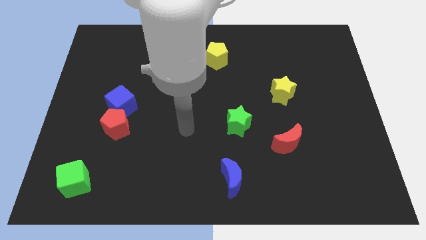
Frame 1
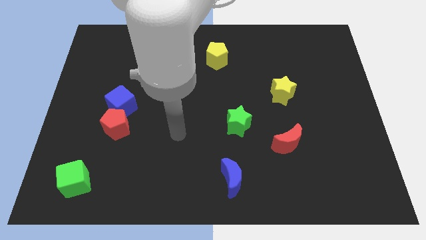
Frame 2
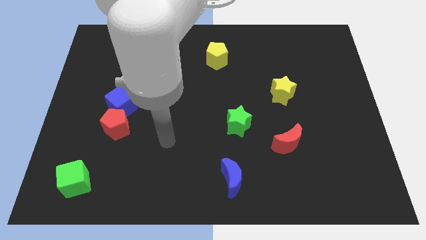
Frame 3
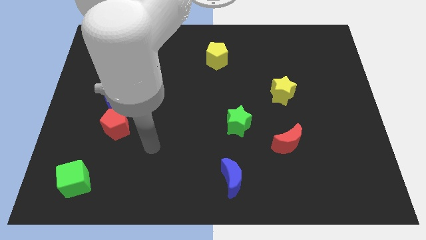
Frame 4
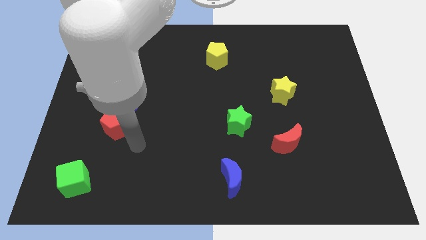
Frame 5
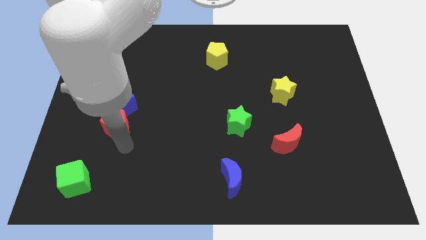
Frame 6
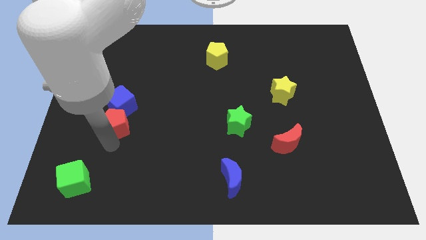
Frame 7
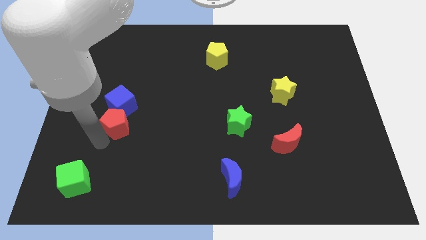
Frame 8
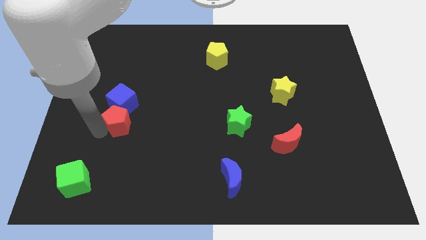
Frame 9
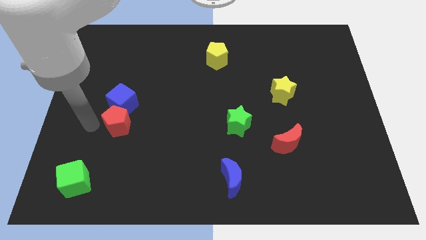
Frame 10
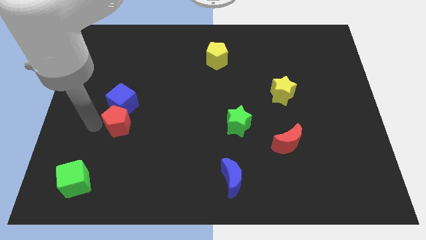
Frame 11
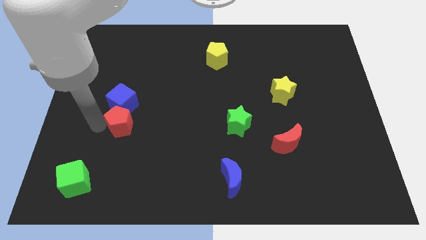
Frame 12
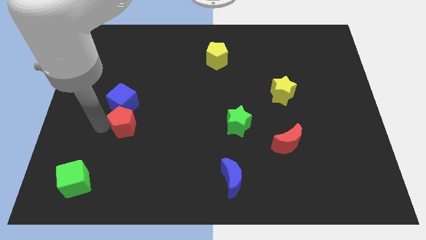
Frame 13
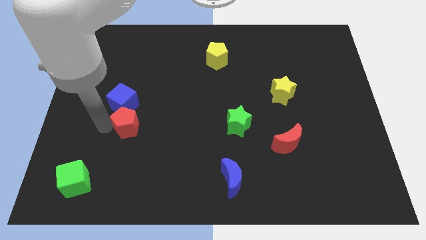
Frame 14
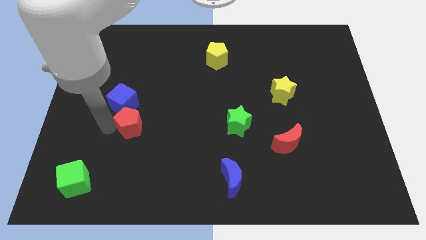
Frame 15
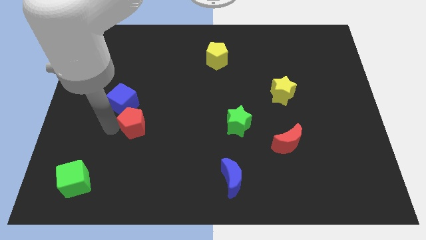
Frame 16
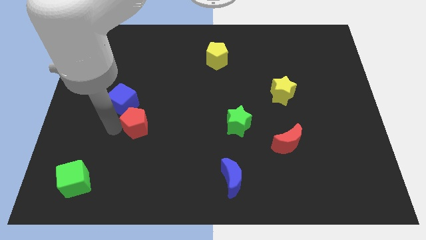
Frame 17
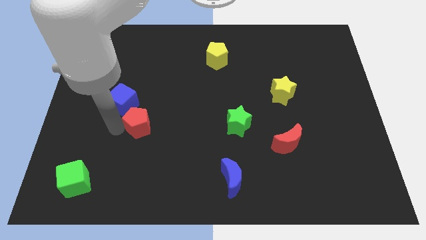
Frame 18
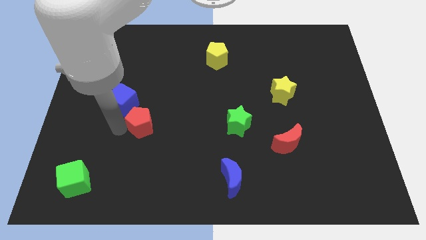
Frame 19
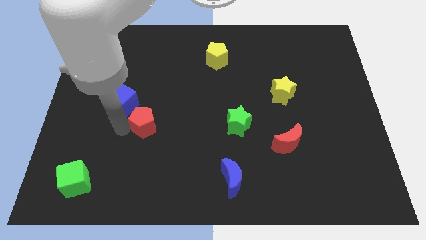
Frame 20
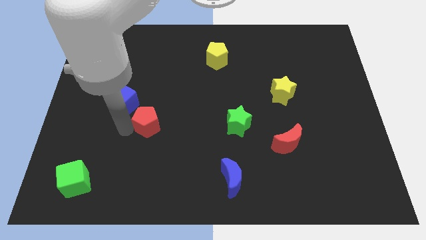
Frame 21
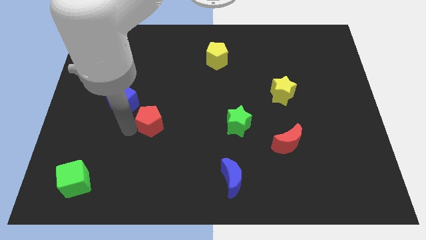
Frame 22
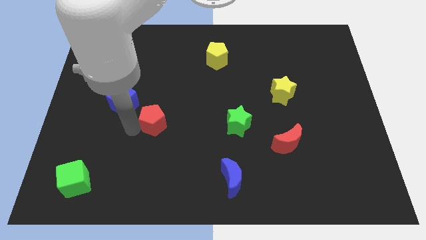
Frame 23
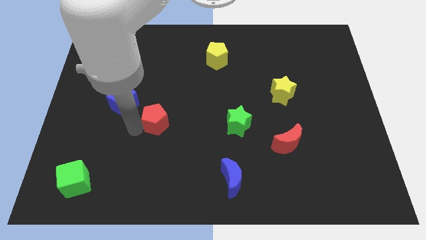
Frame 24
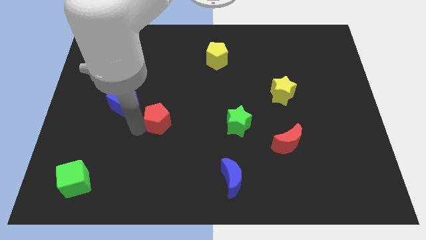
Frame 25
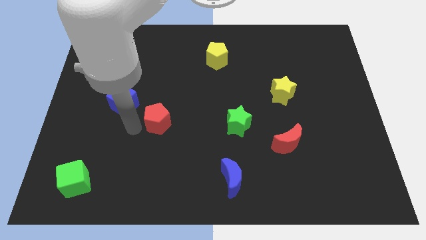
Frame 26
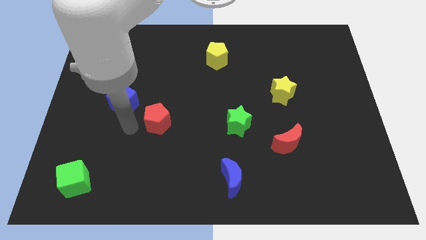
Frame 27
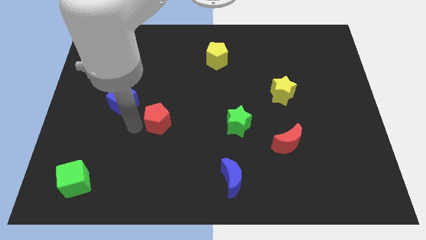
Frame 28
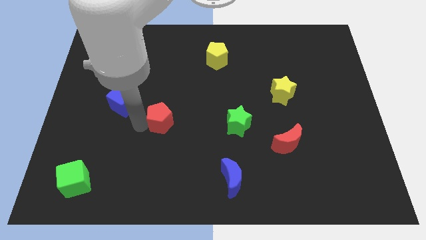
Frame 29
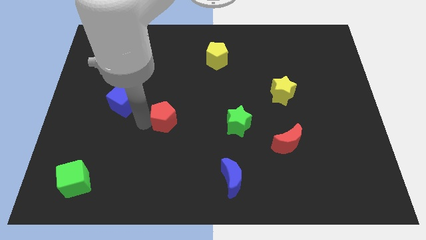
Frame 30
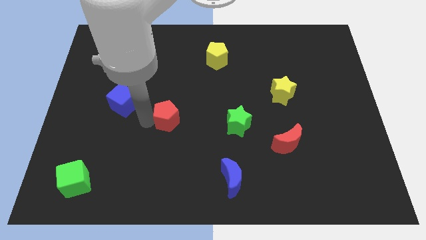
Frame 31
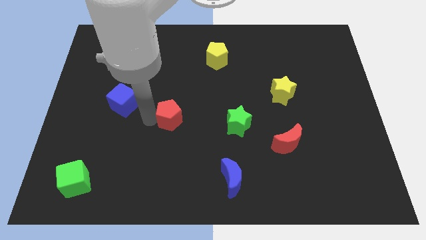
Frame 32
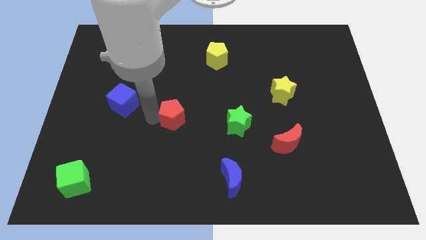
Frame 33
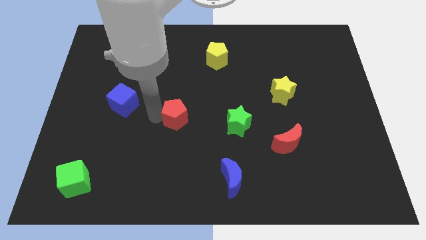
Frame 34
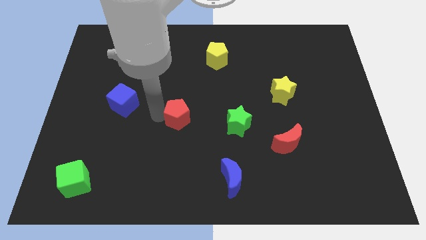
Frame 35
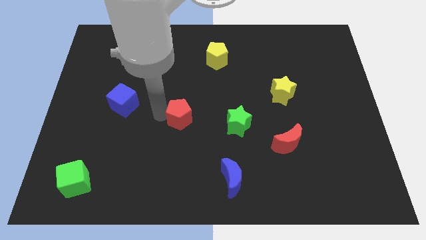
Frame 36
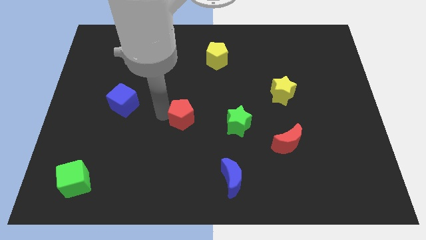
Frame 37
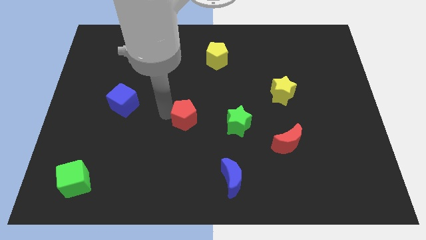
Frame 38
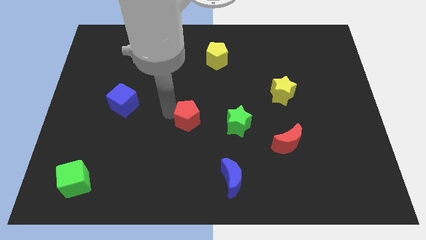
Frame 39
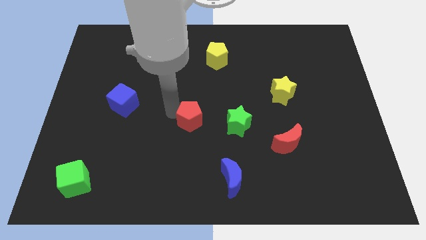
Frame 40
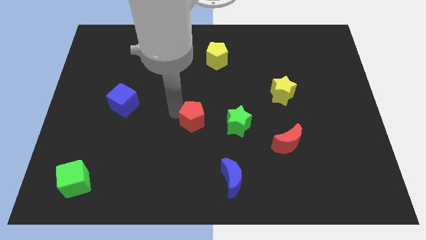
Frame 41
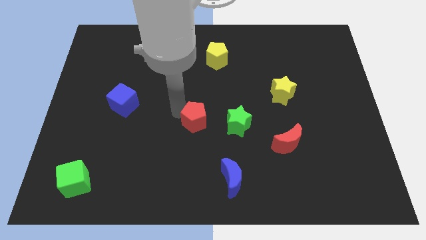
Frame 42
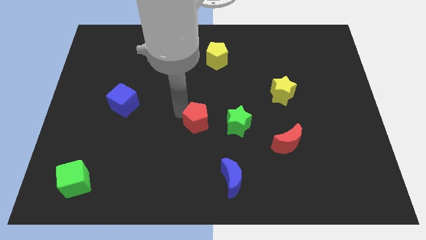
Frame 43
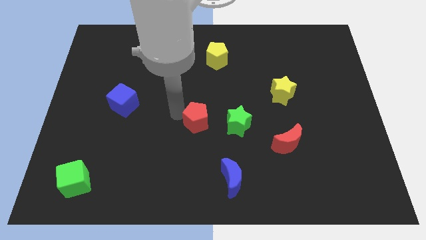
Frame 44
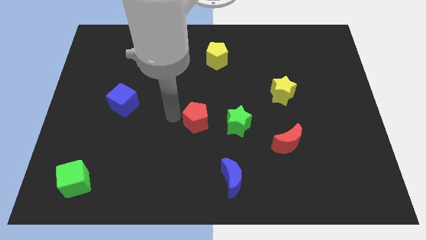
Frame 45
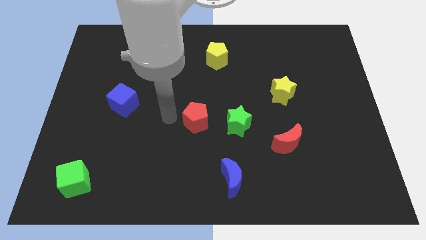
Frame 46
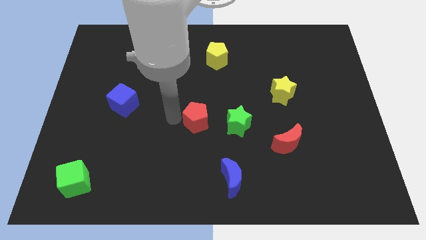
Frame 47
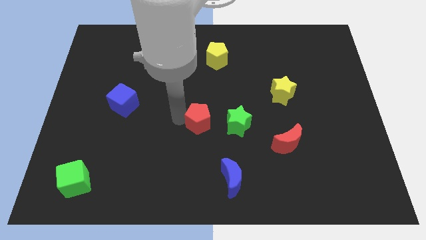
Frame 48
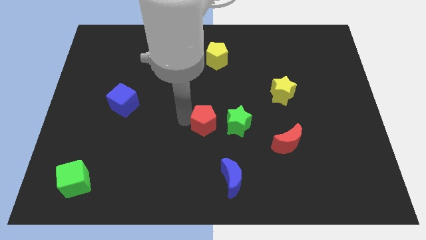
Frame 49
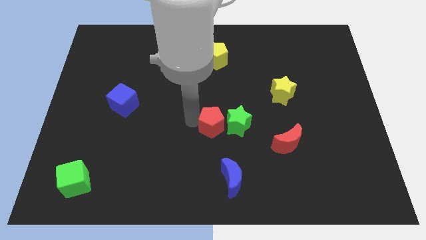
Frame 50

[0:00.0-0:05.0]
slide the red pentagon next to the green star

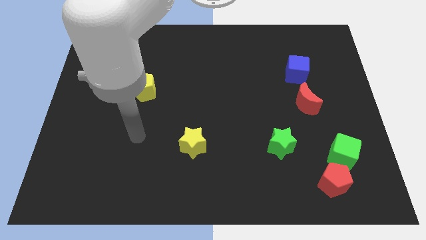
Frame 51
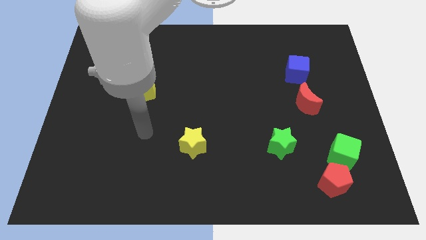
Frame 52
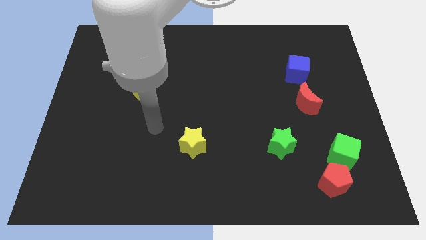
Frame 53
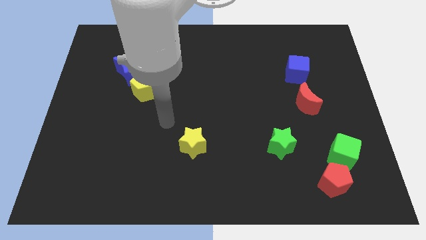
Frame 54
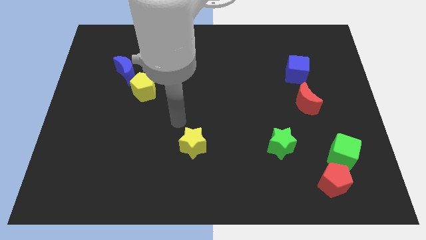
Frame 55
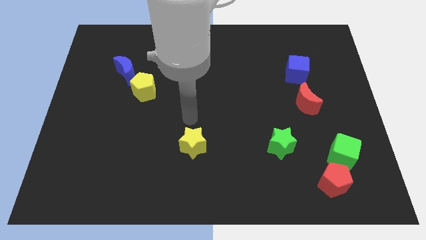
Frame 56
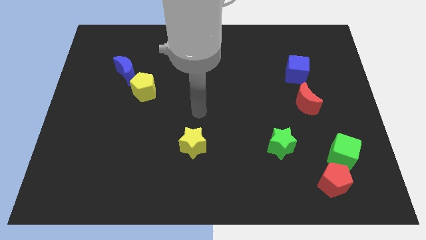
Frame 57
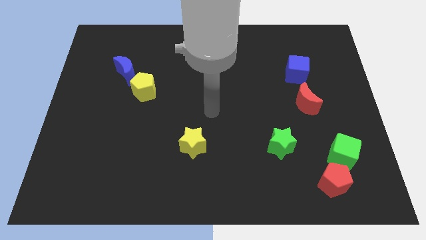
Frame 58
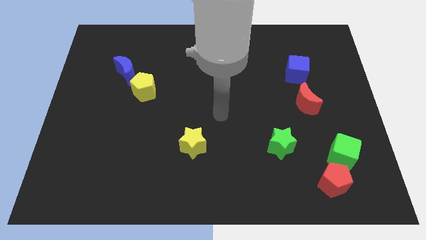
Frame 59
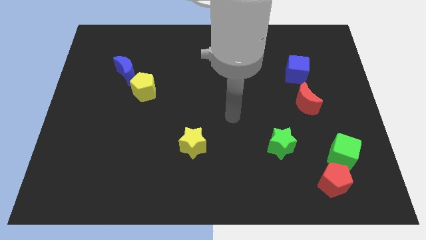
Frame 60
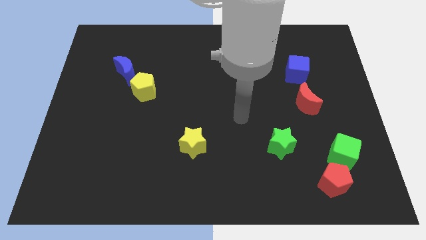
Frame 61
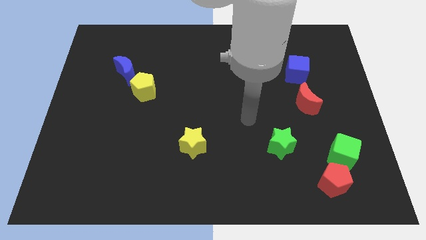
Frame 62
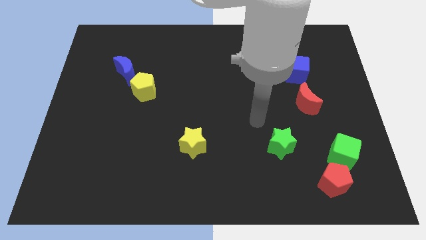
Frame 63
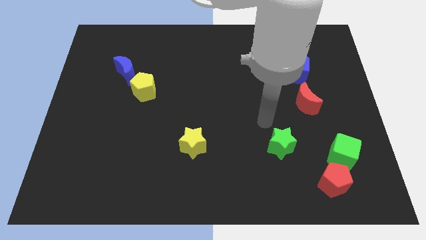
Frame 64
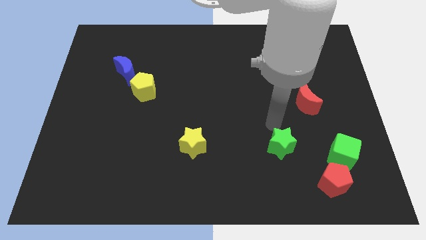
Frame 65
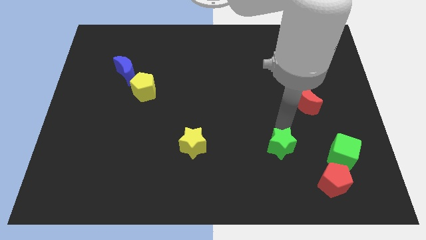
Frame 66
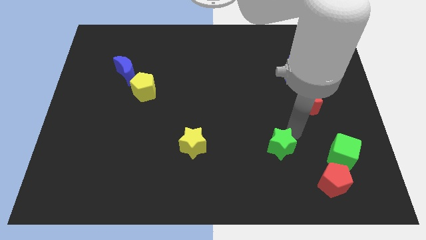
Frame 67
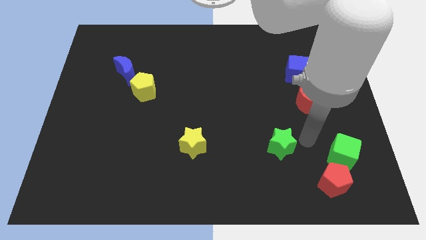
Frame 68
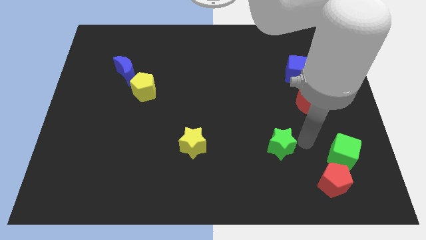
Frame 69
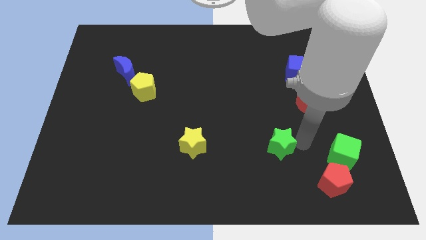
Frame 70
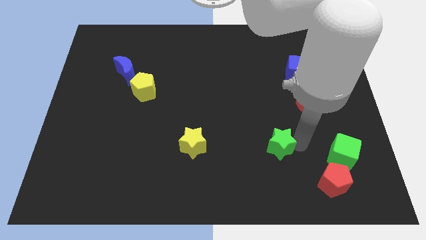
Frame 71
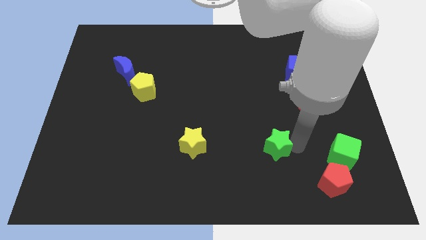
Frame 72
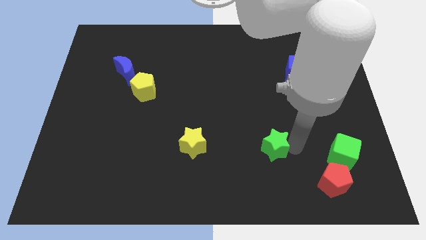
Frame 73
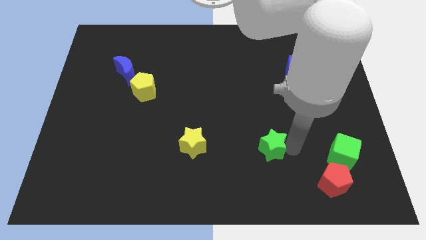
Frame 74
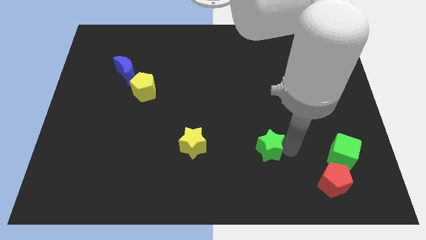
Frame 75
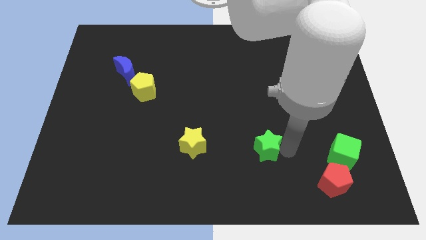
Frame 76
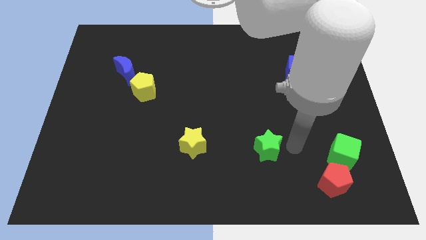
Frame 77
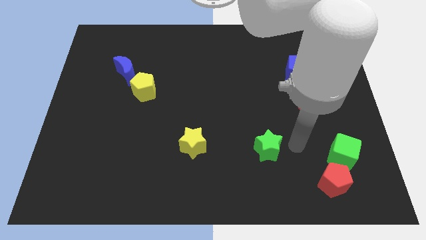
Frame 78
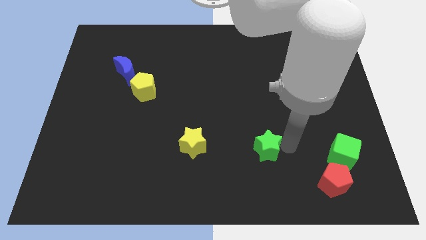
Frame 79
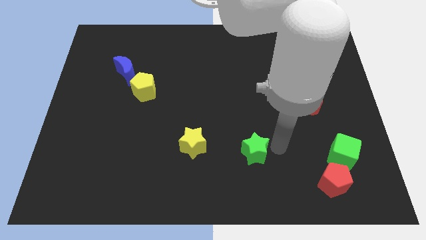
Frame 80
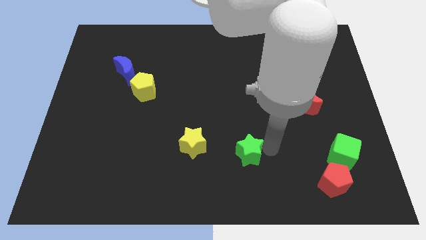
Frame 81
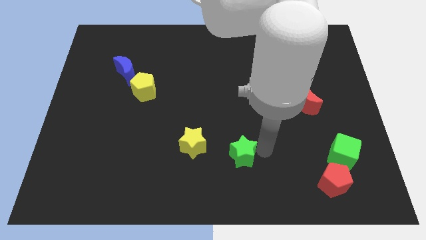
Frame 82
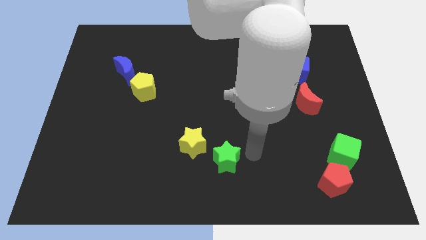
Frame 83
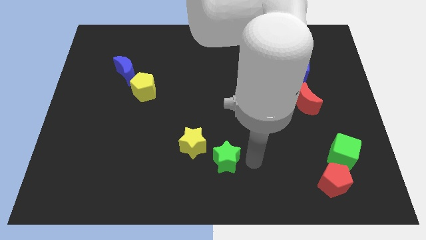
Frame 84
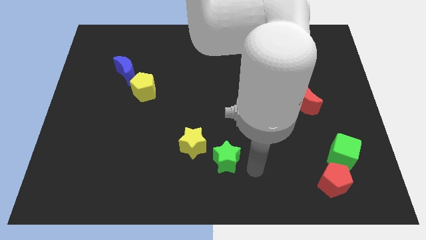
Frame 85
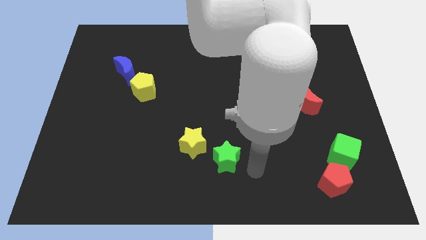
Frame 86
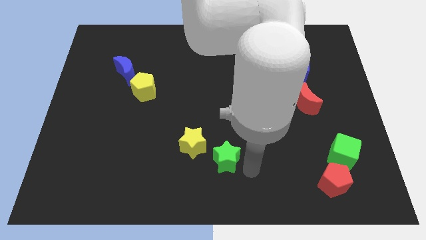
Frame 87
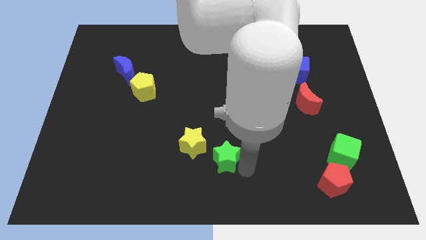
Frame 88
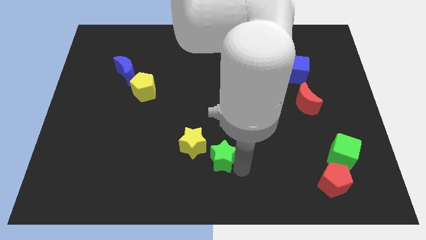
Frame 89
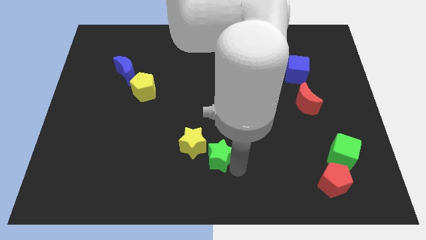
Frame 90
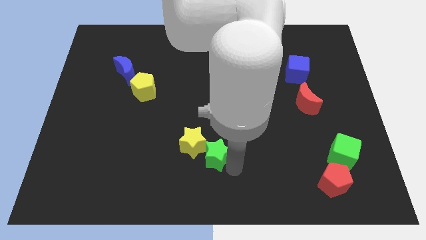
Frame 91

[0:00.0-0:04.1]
put the green star next to the yellow star
